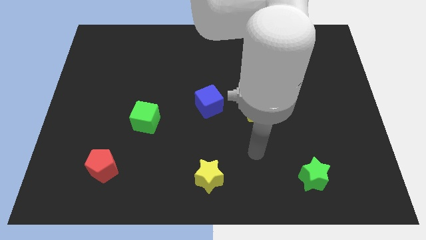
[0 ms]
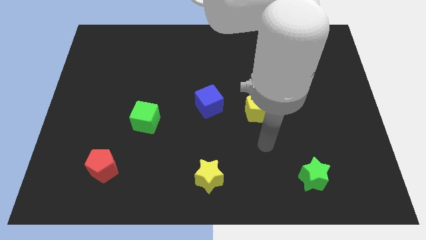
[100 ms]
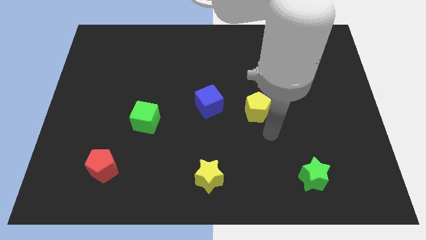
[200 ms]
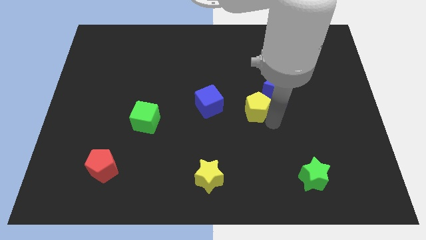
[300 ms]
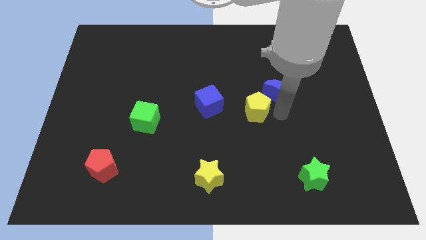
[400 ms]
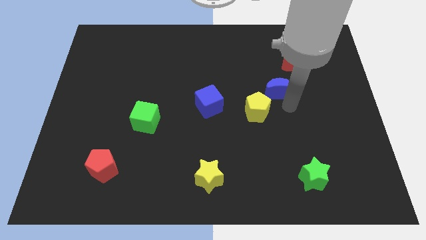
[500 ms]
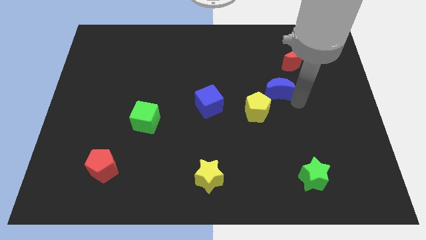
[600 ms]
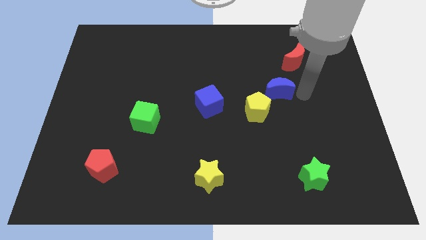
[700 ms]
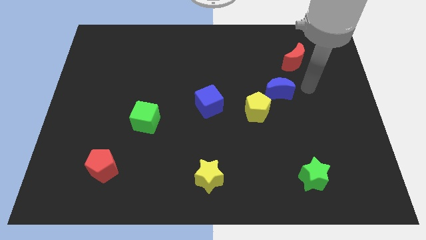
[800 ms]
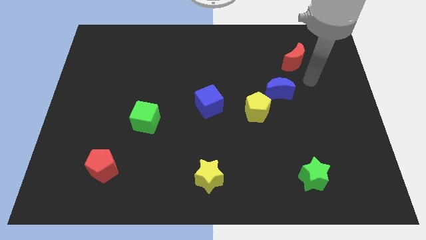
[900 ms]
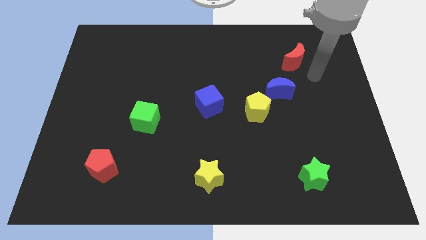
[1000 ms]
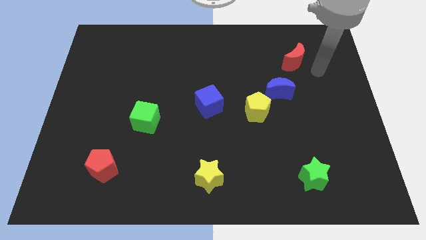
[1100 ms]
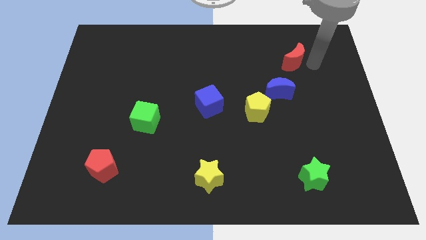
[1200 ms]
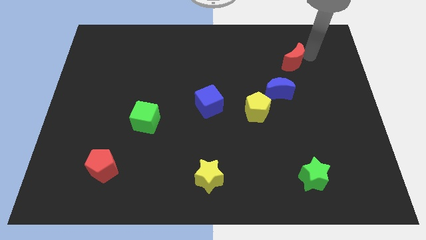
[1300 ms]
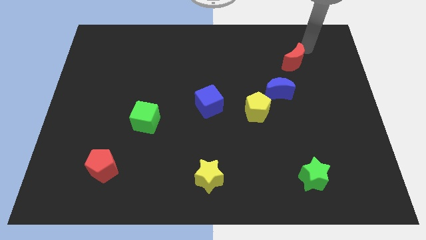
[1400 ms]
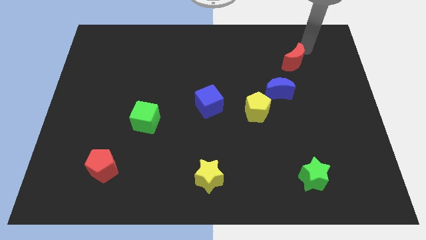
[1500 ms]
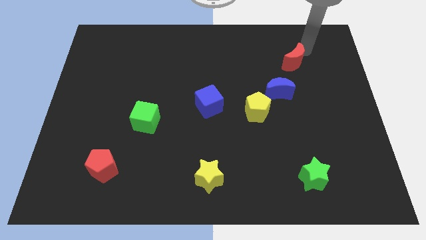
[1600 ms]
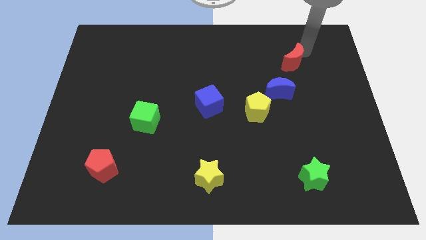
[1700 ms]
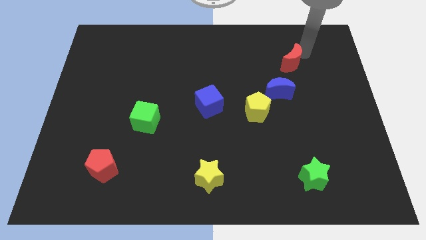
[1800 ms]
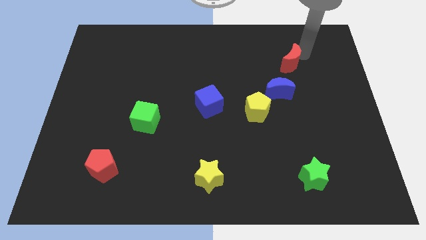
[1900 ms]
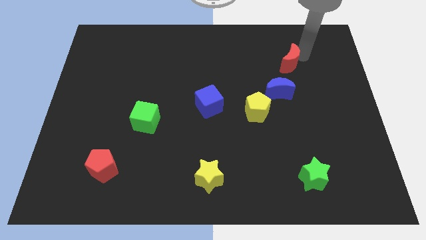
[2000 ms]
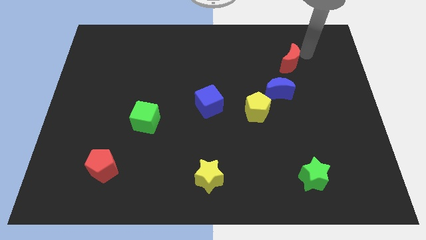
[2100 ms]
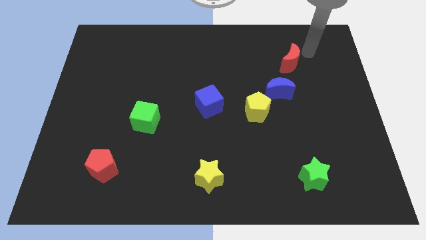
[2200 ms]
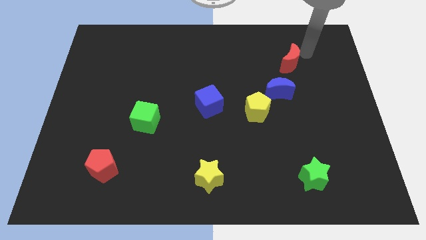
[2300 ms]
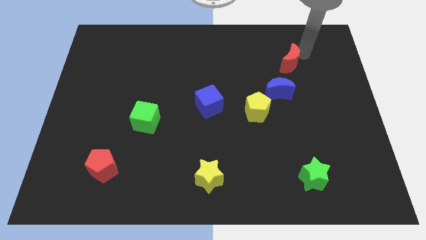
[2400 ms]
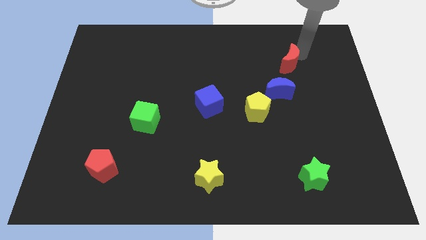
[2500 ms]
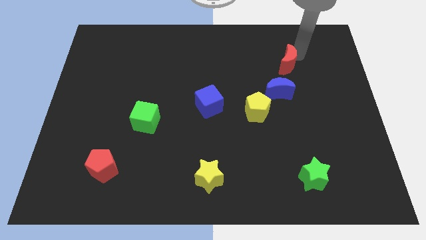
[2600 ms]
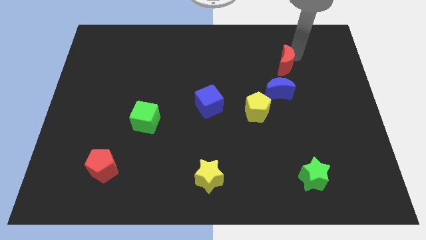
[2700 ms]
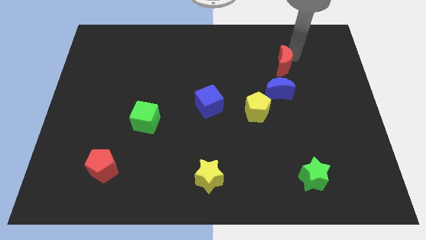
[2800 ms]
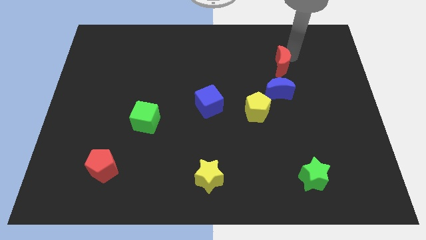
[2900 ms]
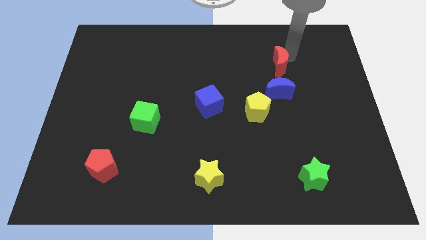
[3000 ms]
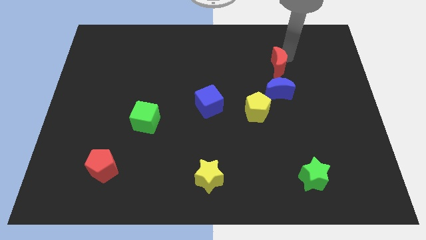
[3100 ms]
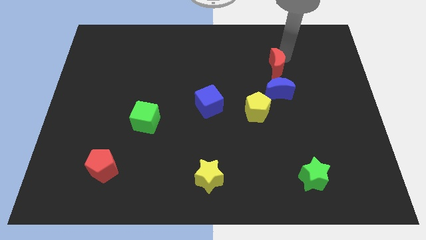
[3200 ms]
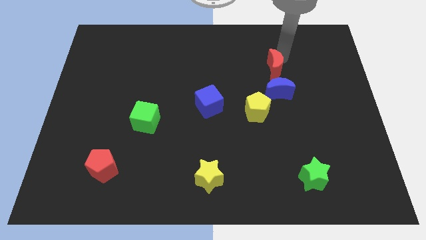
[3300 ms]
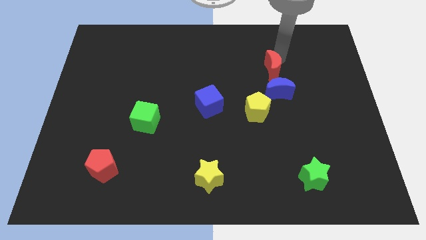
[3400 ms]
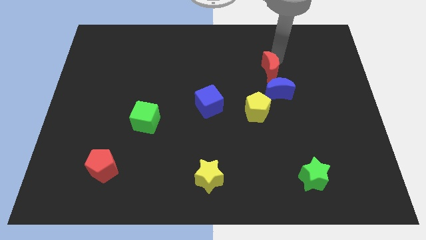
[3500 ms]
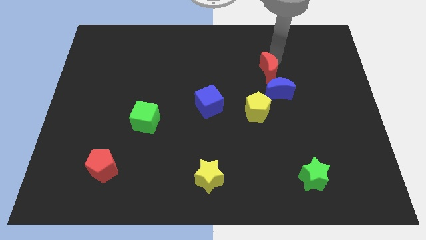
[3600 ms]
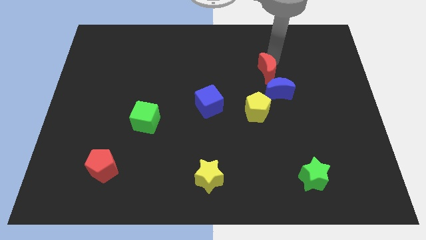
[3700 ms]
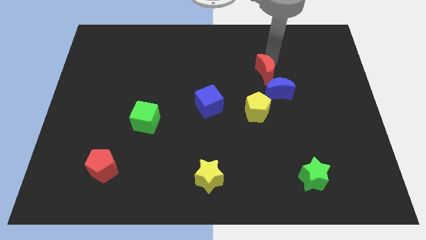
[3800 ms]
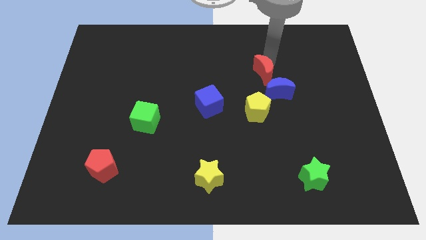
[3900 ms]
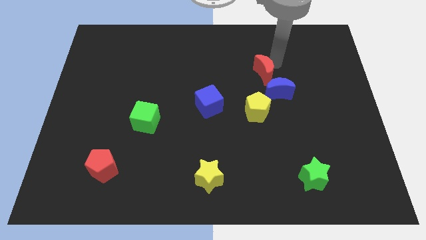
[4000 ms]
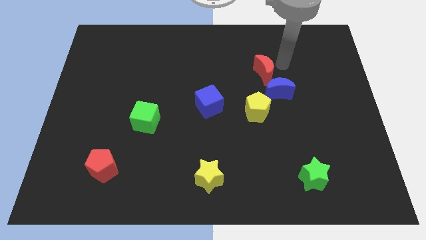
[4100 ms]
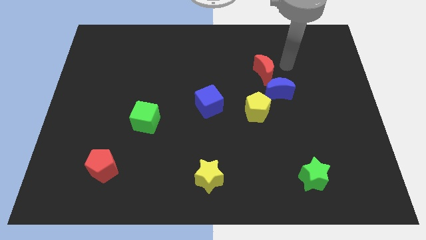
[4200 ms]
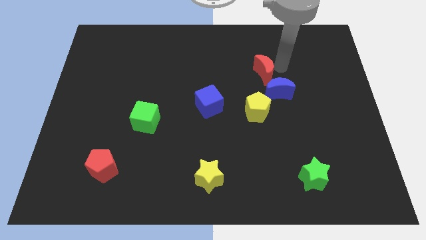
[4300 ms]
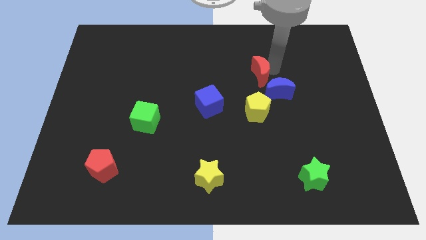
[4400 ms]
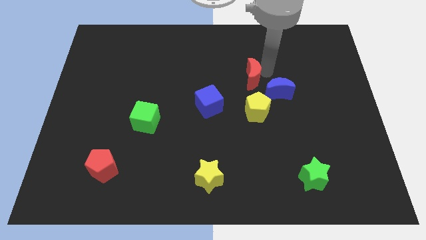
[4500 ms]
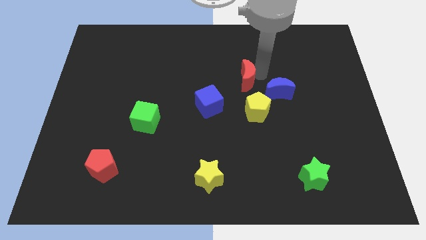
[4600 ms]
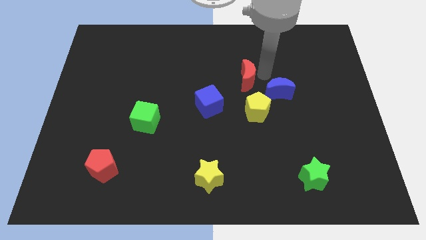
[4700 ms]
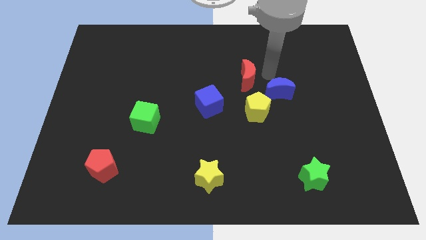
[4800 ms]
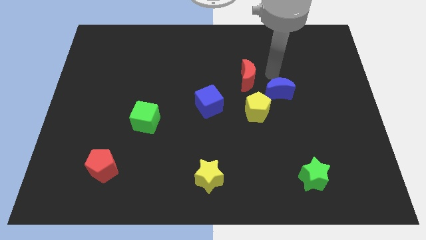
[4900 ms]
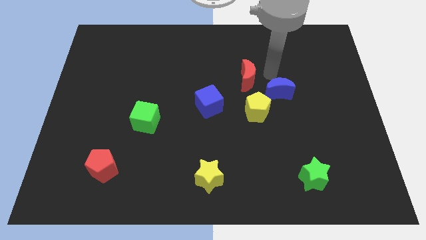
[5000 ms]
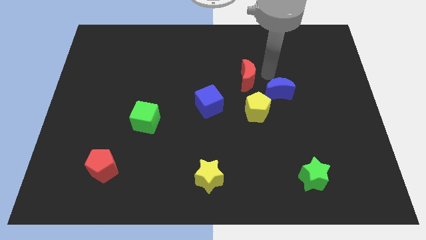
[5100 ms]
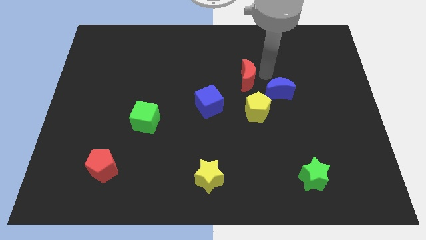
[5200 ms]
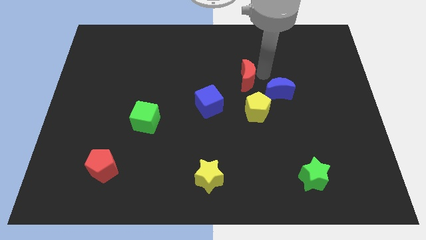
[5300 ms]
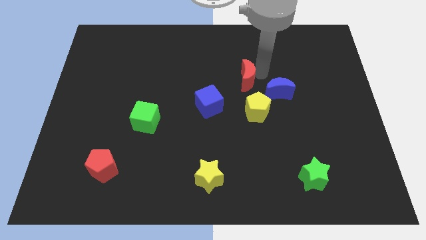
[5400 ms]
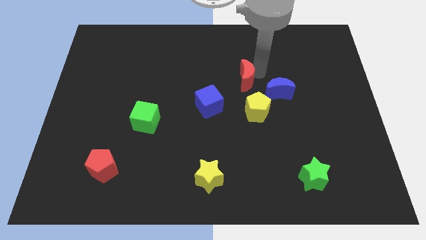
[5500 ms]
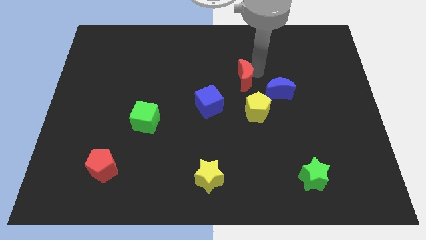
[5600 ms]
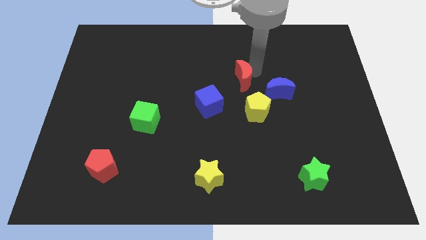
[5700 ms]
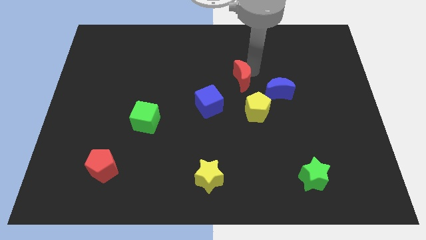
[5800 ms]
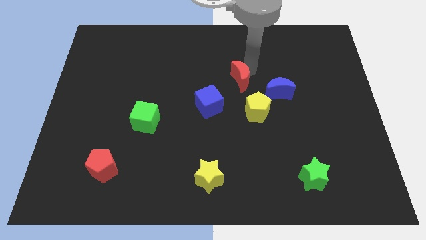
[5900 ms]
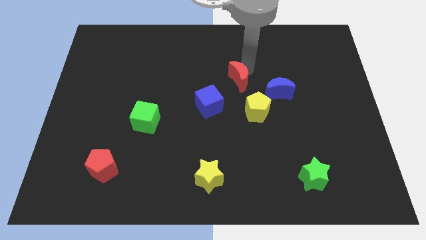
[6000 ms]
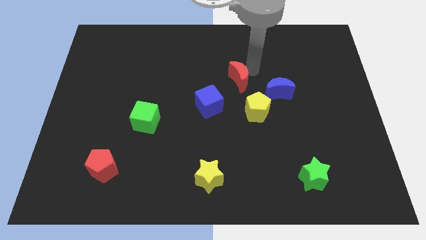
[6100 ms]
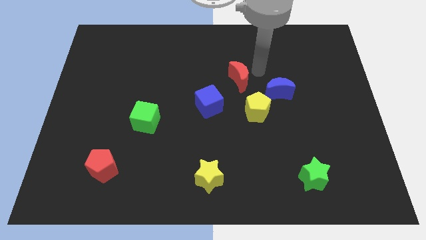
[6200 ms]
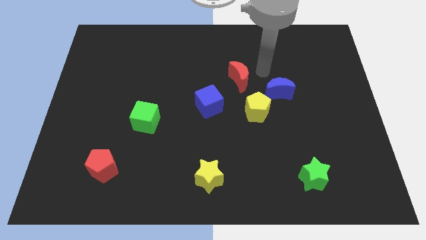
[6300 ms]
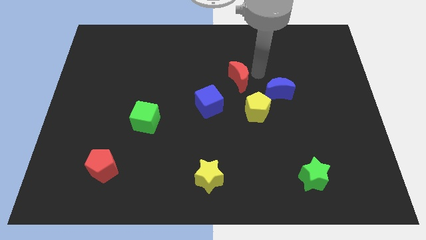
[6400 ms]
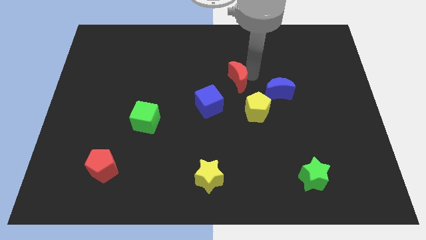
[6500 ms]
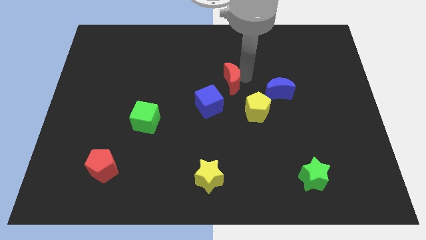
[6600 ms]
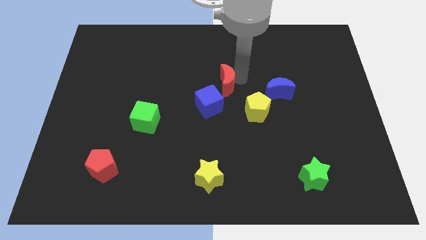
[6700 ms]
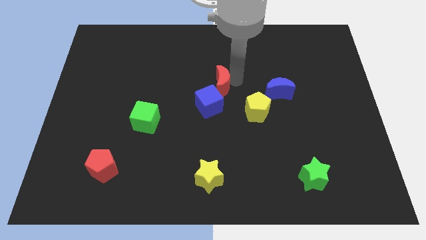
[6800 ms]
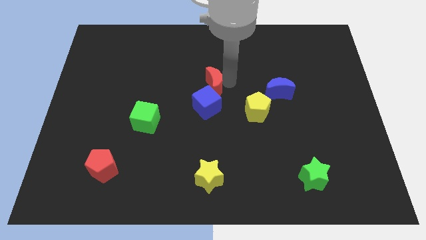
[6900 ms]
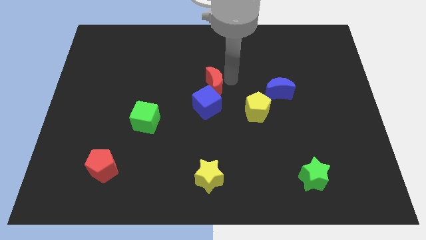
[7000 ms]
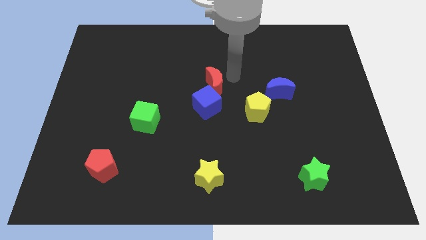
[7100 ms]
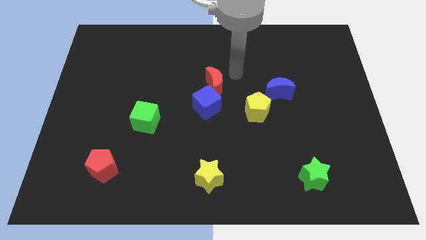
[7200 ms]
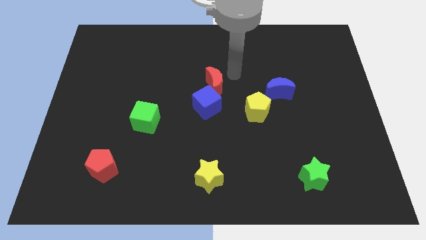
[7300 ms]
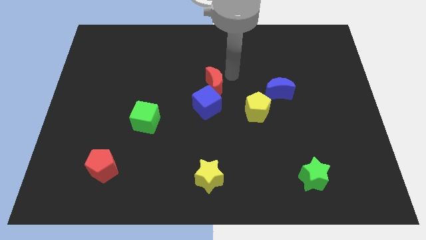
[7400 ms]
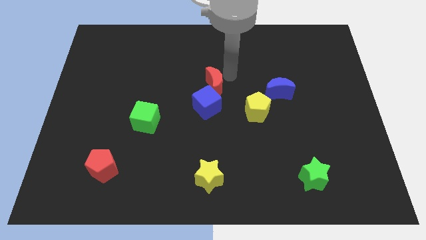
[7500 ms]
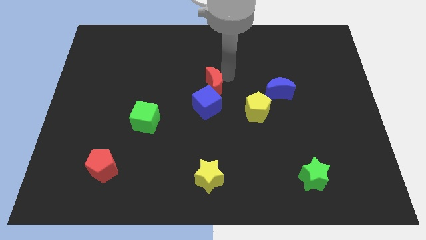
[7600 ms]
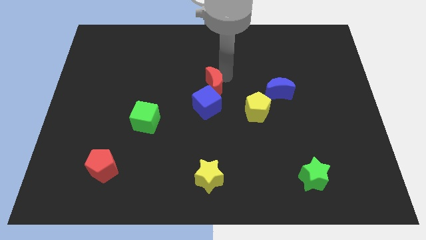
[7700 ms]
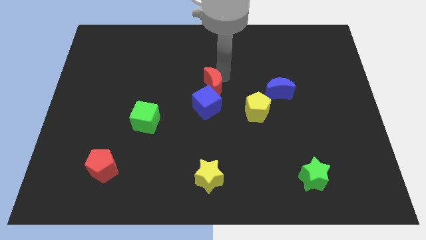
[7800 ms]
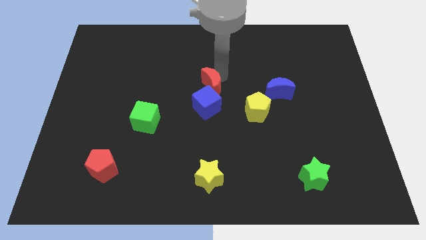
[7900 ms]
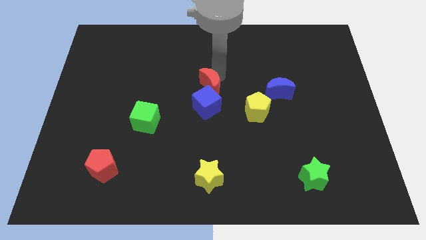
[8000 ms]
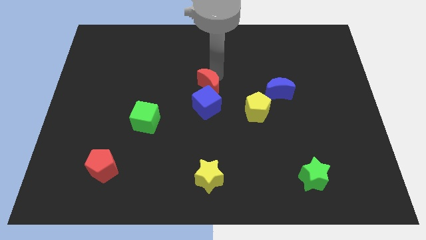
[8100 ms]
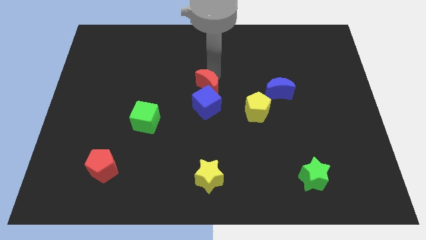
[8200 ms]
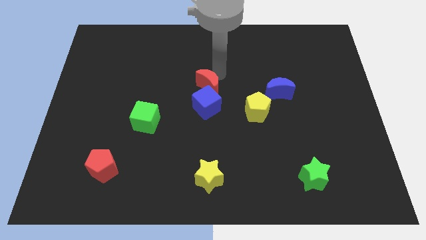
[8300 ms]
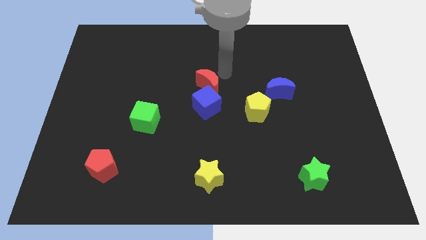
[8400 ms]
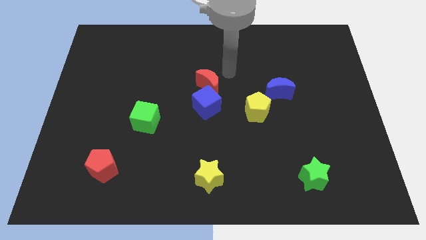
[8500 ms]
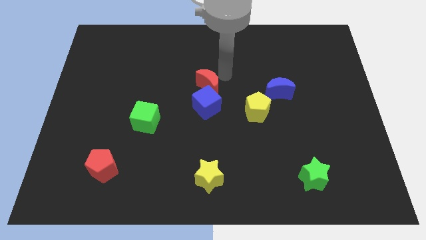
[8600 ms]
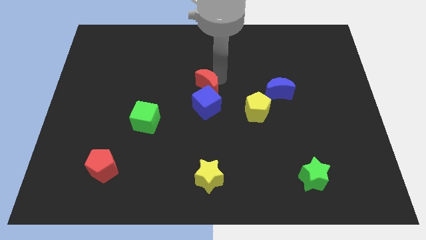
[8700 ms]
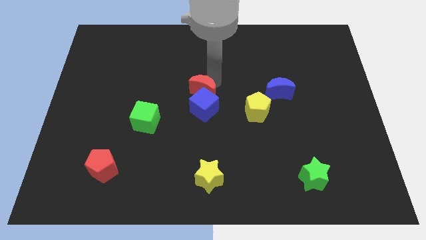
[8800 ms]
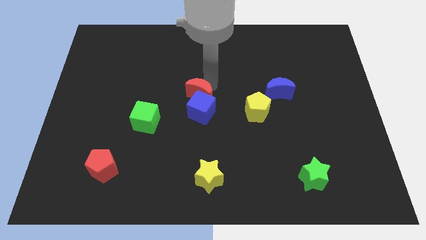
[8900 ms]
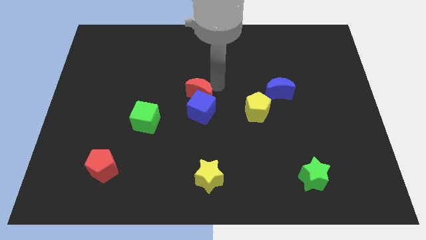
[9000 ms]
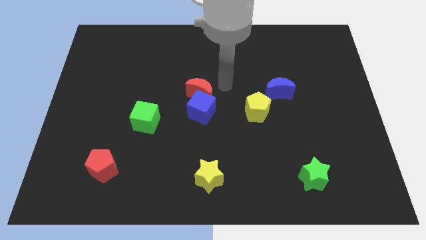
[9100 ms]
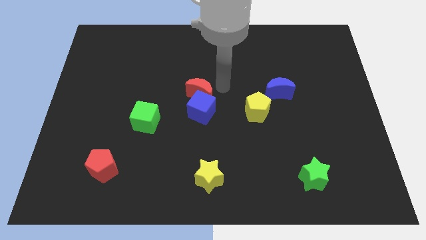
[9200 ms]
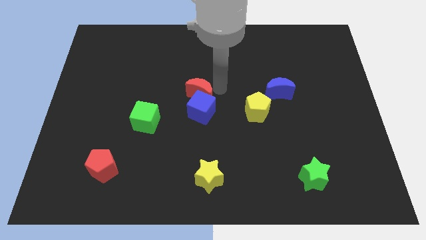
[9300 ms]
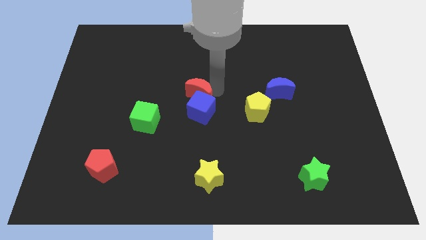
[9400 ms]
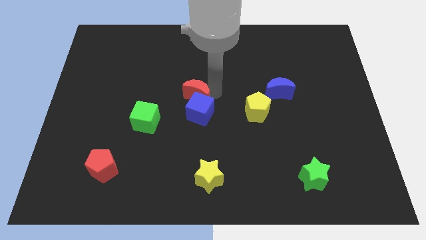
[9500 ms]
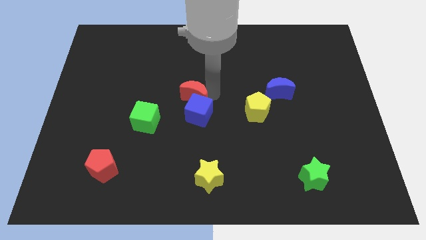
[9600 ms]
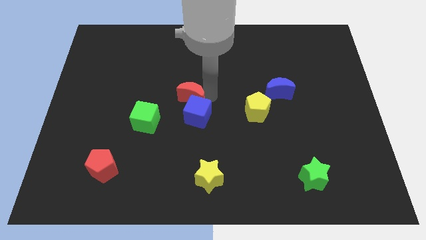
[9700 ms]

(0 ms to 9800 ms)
move the red moon to the top right of the green cube
